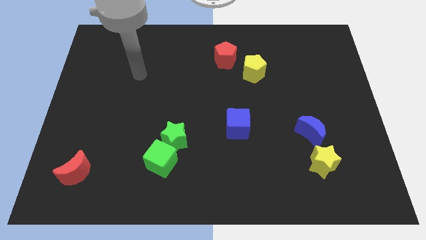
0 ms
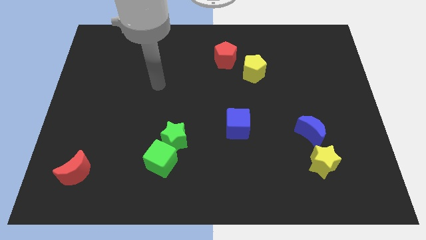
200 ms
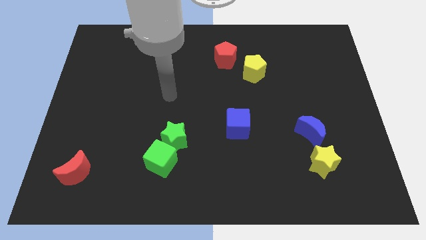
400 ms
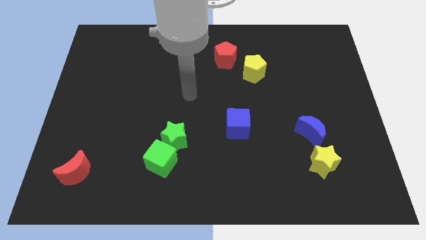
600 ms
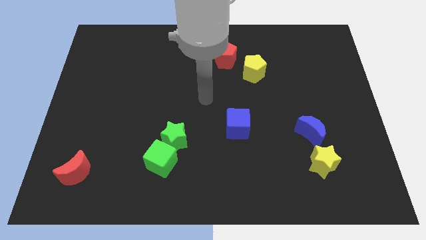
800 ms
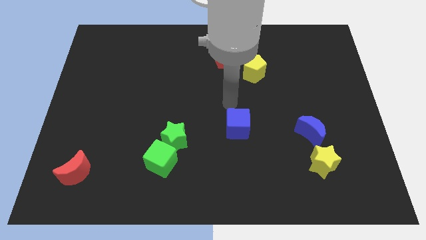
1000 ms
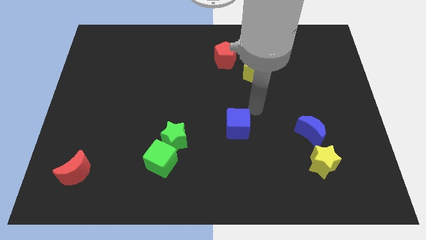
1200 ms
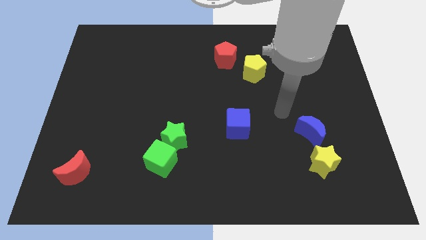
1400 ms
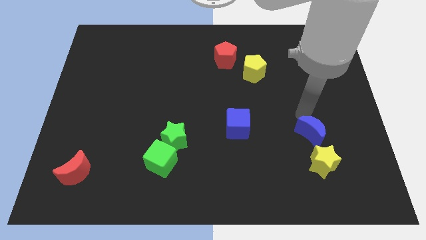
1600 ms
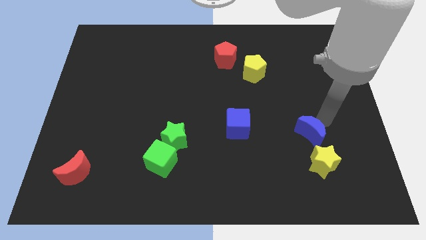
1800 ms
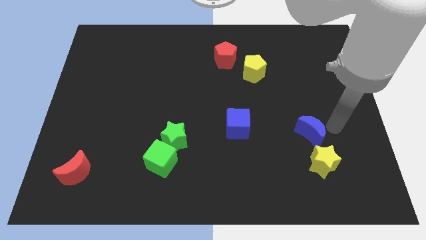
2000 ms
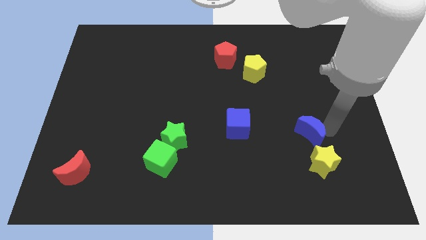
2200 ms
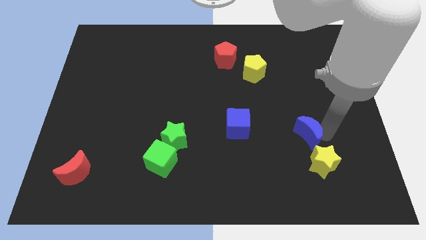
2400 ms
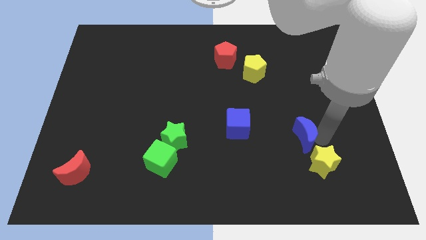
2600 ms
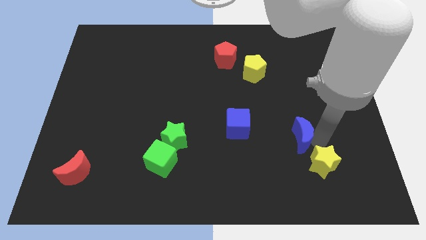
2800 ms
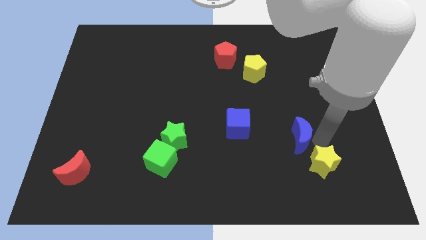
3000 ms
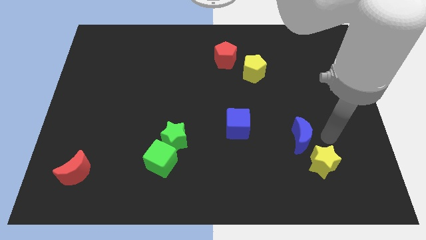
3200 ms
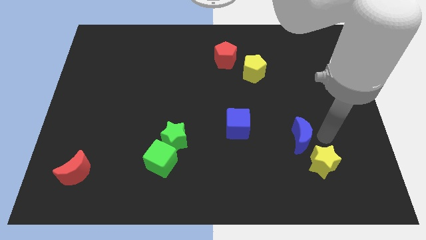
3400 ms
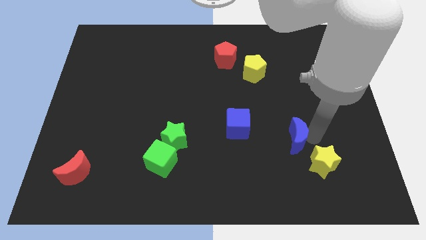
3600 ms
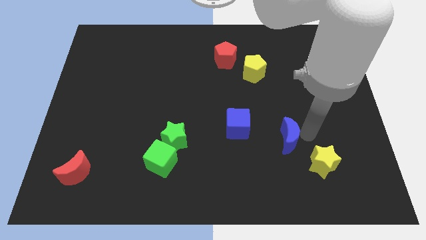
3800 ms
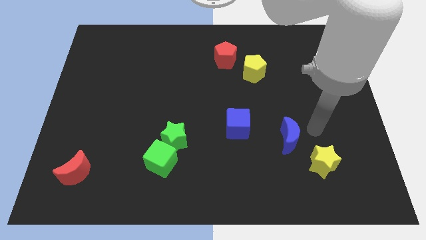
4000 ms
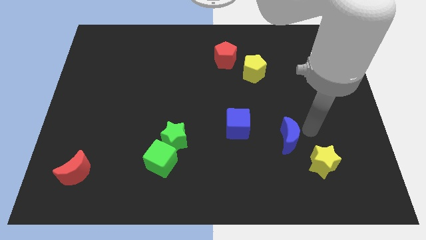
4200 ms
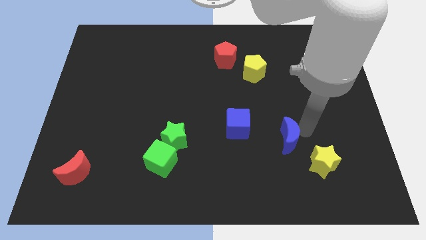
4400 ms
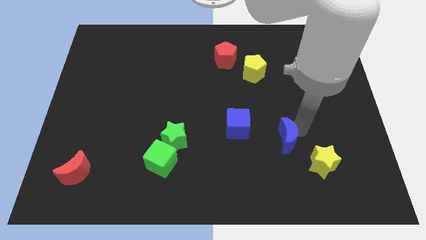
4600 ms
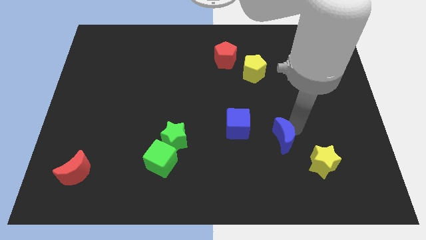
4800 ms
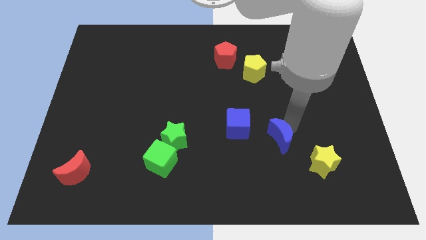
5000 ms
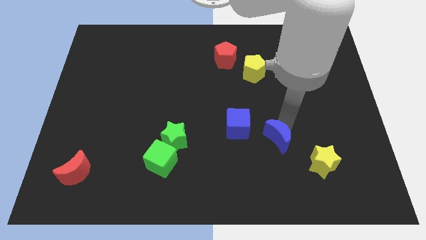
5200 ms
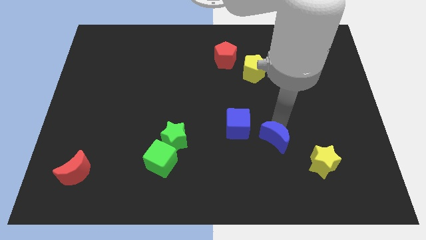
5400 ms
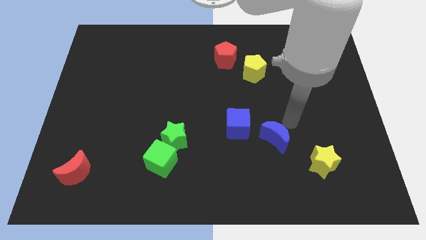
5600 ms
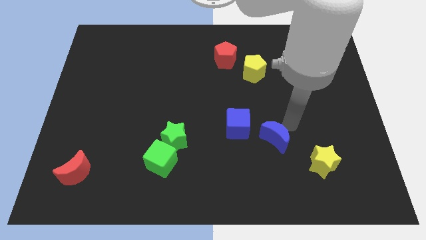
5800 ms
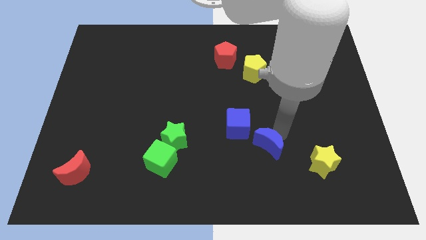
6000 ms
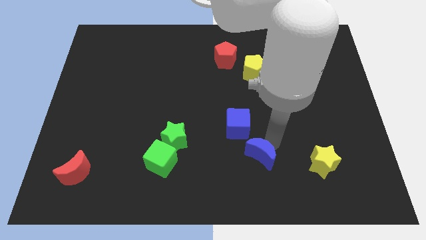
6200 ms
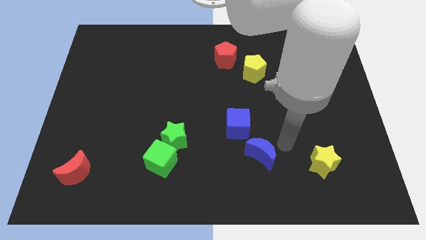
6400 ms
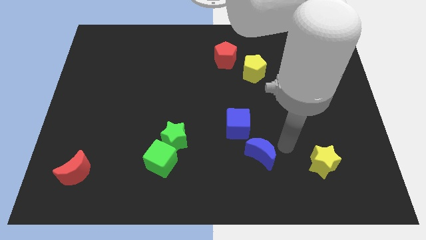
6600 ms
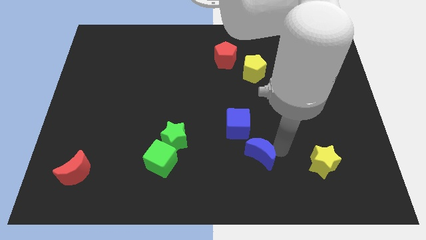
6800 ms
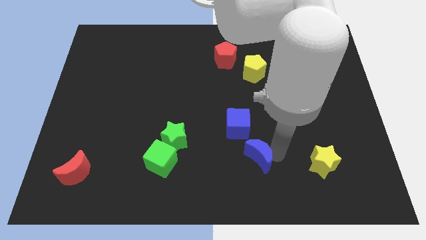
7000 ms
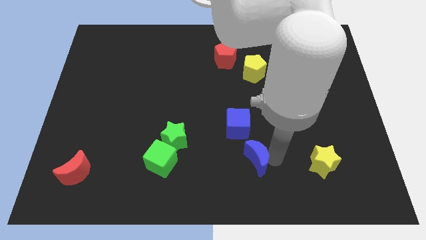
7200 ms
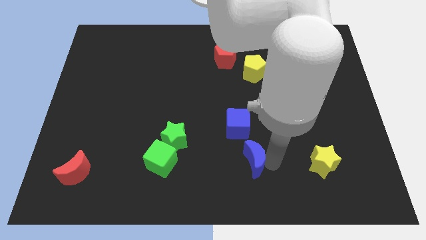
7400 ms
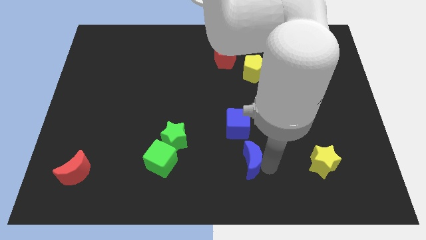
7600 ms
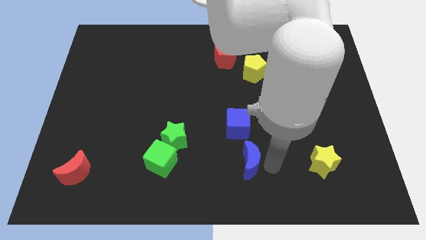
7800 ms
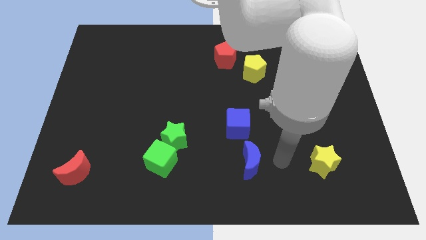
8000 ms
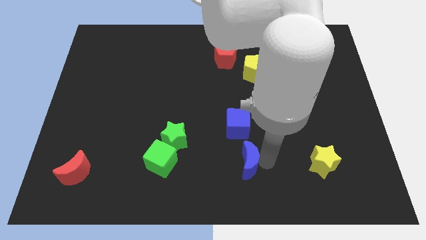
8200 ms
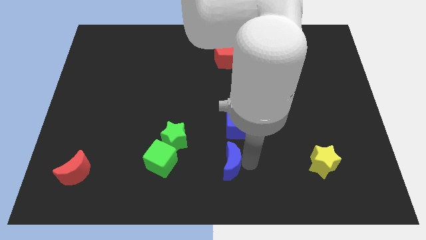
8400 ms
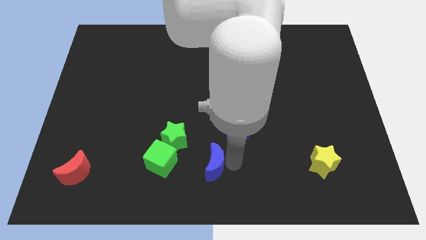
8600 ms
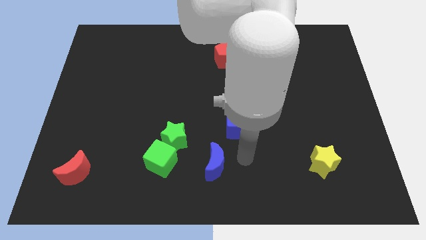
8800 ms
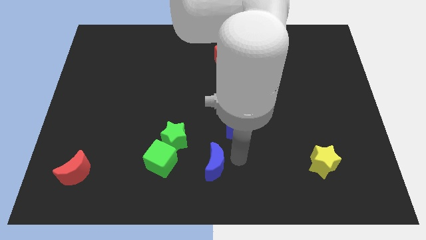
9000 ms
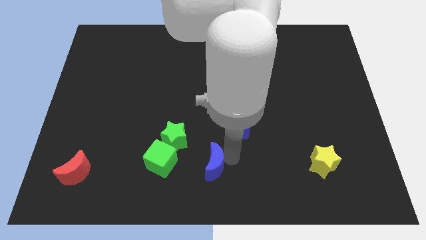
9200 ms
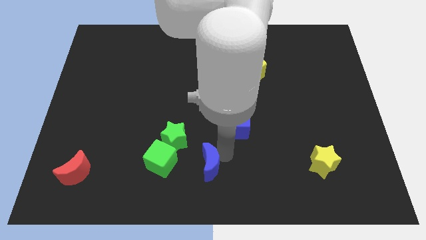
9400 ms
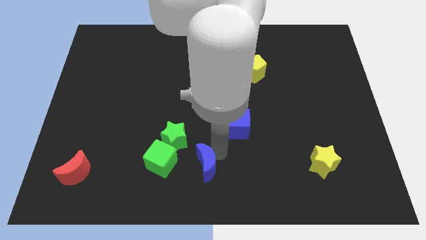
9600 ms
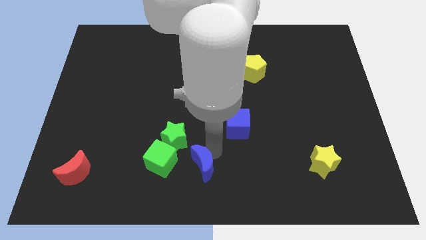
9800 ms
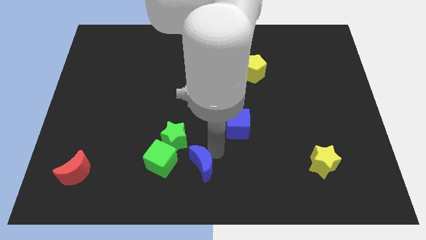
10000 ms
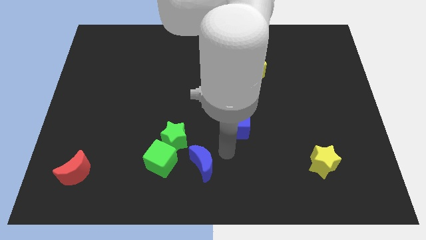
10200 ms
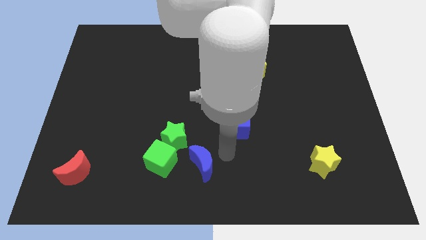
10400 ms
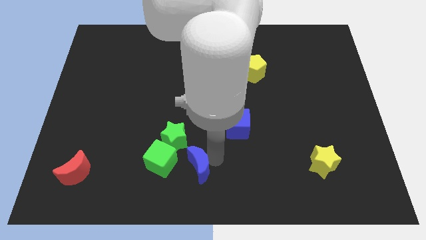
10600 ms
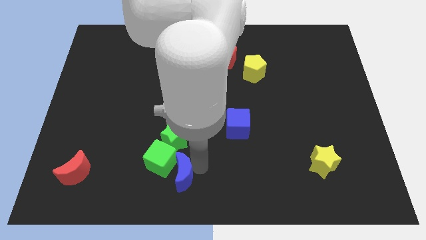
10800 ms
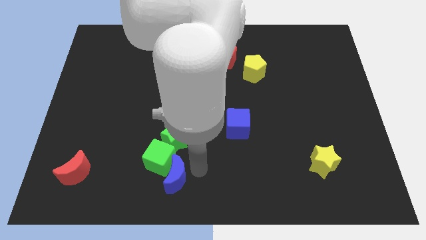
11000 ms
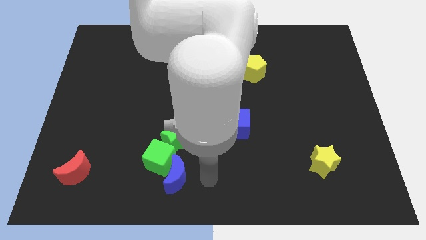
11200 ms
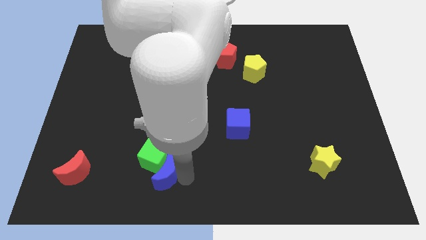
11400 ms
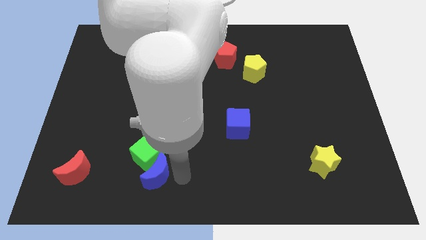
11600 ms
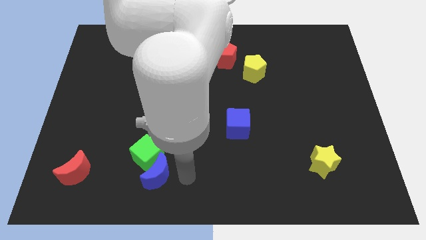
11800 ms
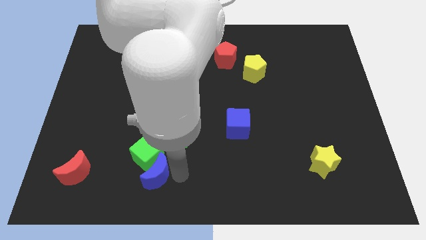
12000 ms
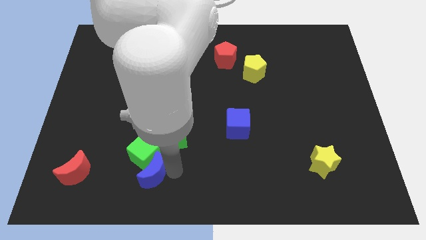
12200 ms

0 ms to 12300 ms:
put the blue moon to the right side of the red moon

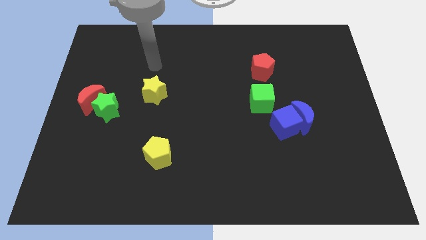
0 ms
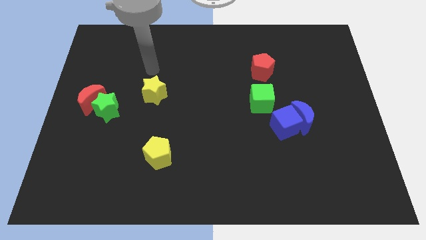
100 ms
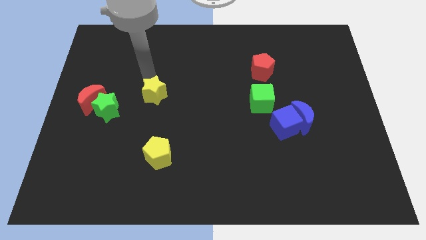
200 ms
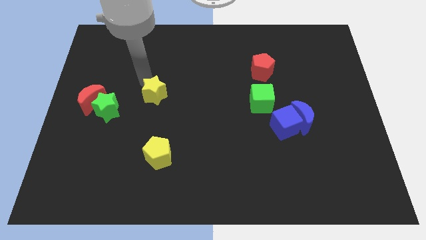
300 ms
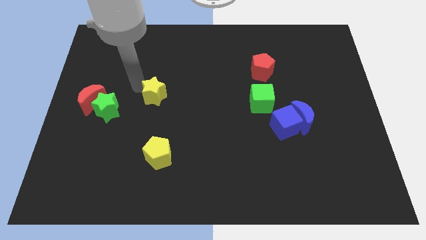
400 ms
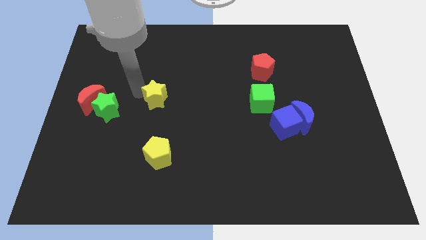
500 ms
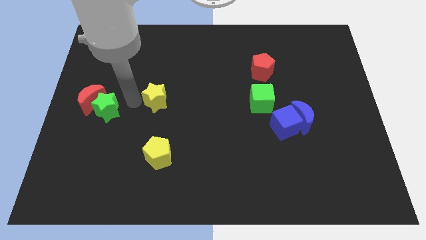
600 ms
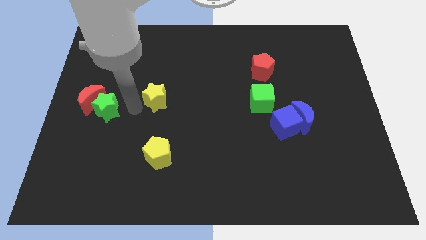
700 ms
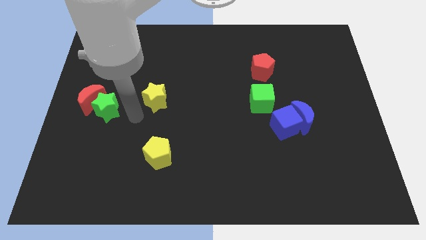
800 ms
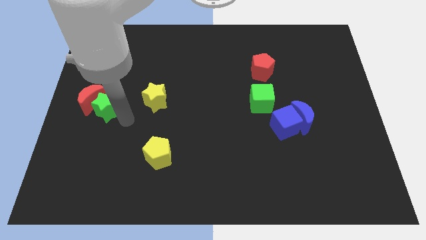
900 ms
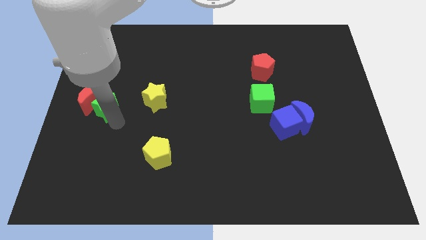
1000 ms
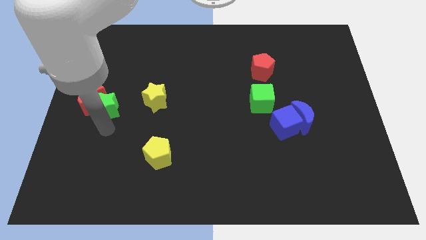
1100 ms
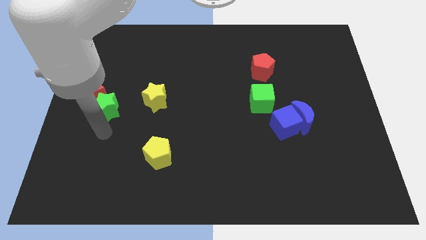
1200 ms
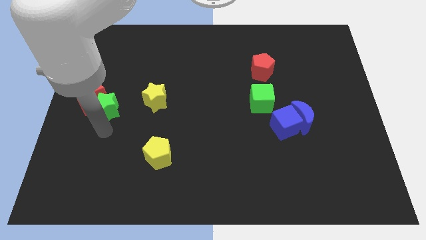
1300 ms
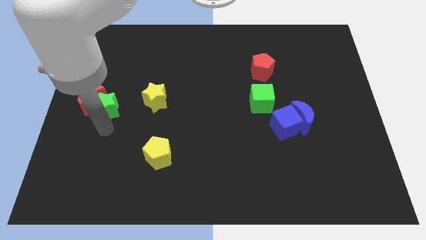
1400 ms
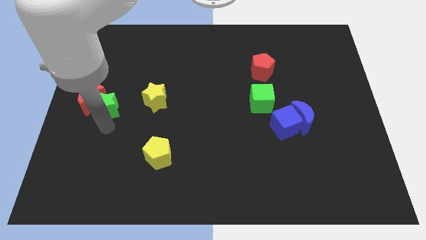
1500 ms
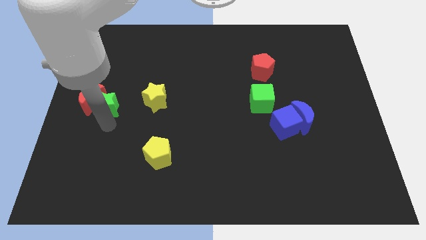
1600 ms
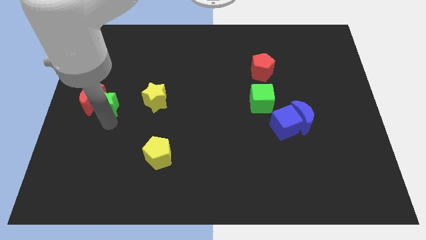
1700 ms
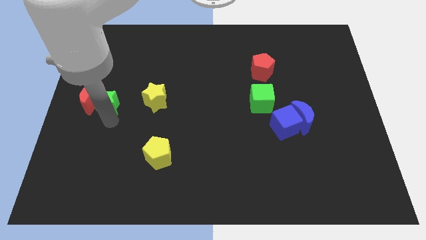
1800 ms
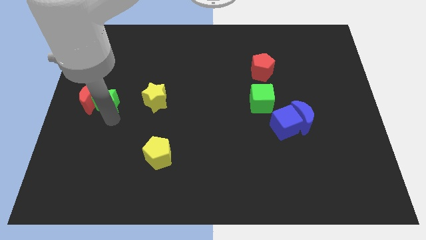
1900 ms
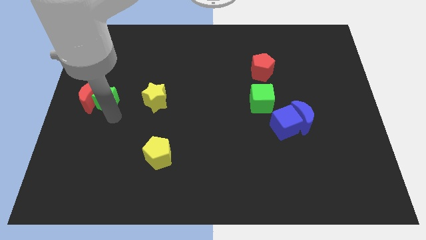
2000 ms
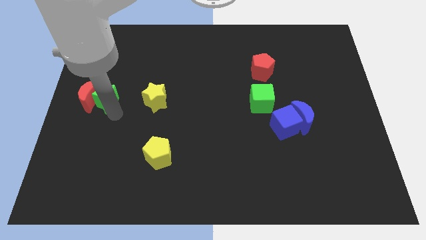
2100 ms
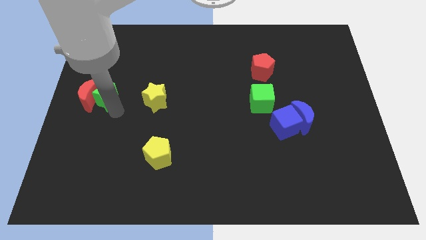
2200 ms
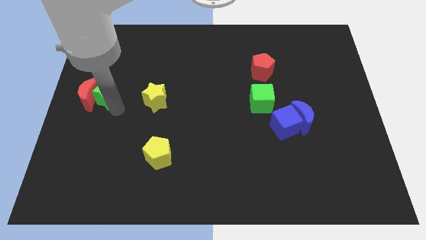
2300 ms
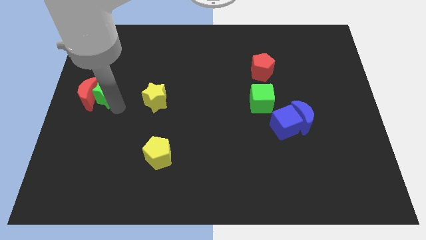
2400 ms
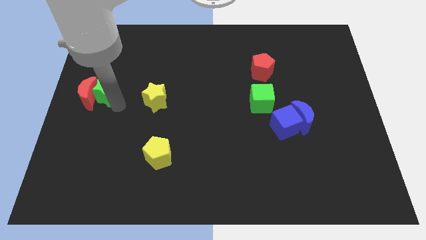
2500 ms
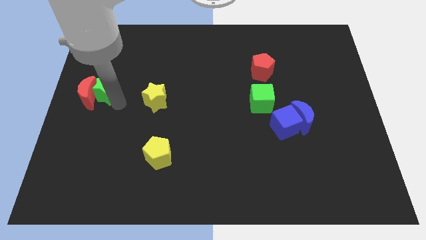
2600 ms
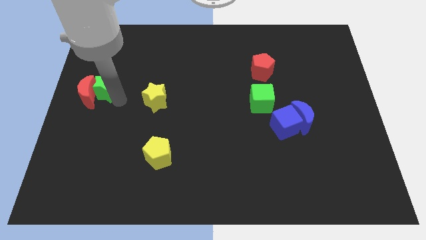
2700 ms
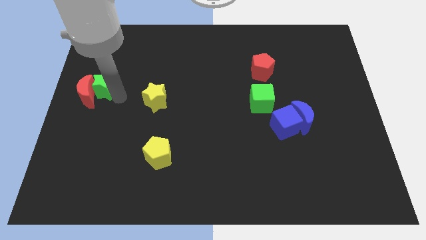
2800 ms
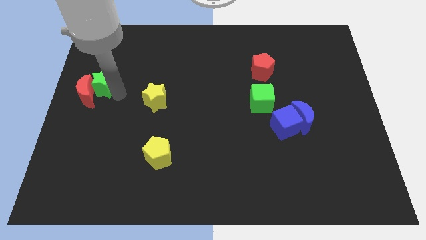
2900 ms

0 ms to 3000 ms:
push the green star above the red moon
